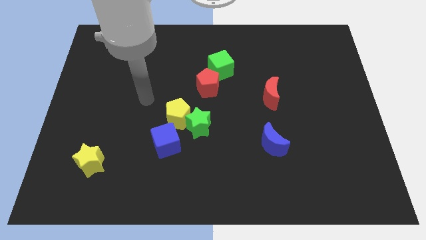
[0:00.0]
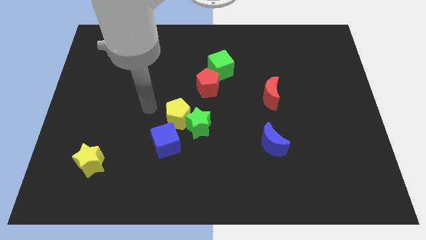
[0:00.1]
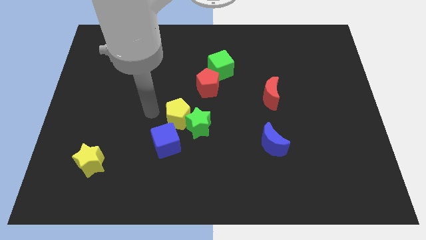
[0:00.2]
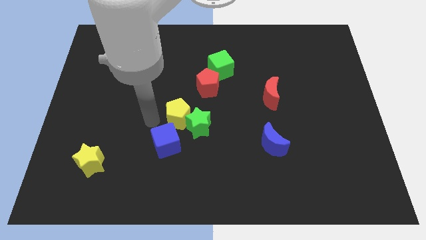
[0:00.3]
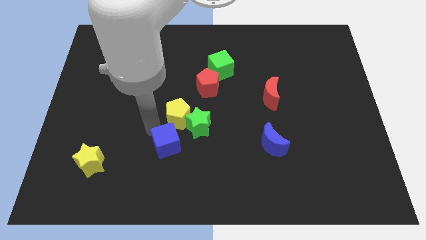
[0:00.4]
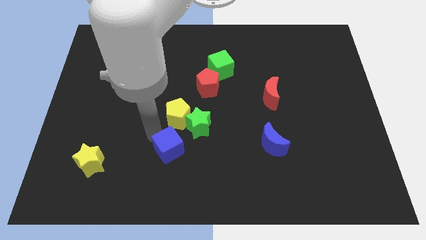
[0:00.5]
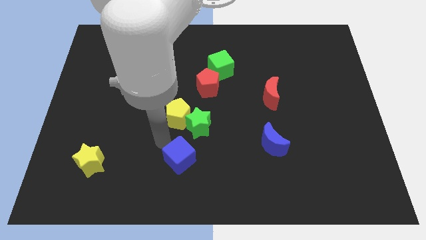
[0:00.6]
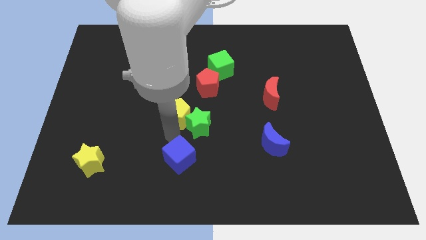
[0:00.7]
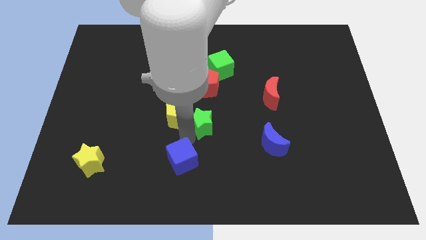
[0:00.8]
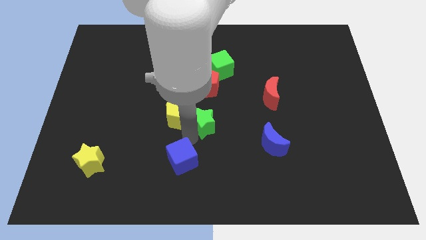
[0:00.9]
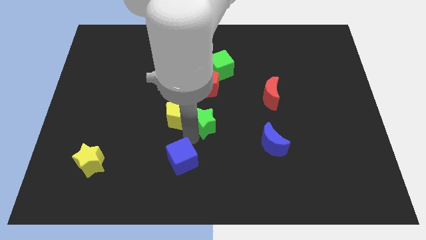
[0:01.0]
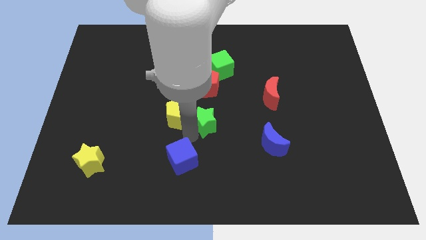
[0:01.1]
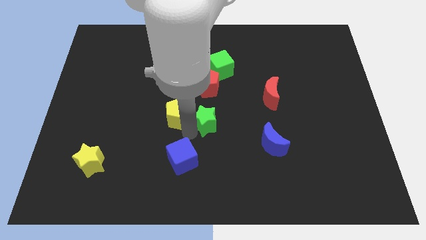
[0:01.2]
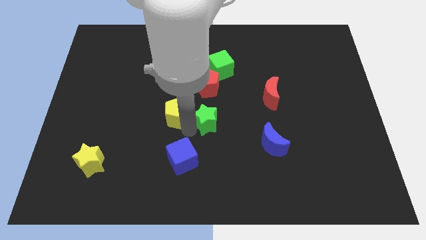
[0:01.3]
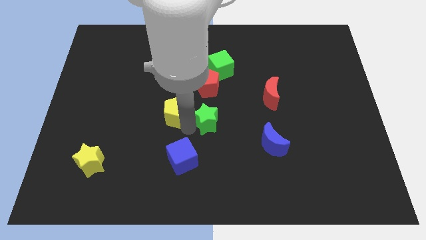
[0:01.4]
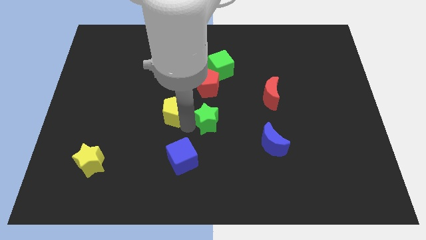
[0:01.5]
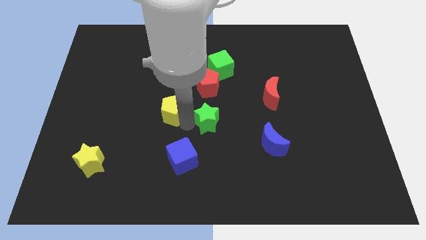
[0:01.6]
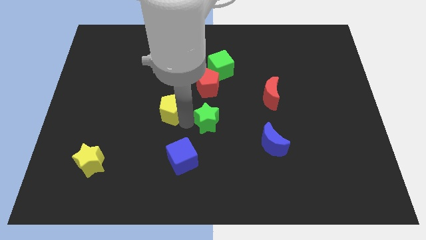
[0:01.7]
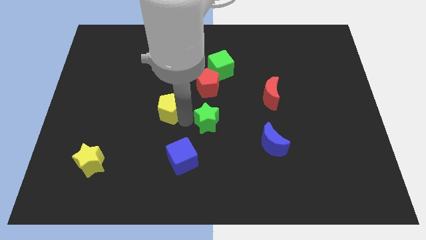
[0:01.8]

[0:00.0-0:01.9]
move the yellow pentagon away from the green star and blue cube

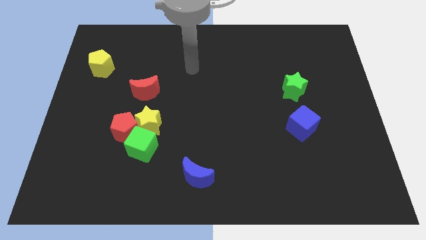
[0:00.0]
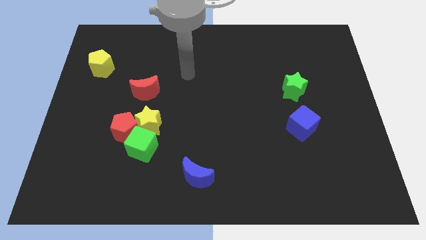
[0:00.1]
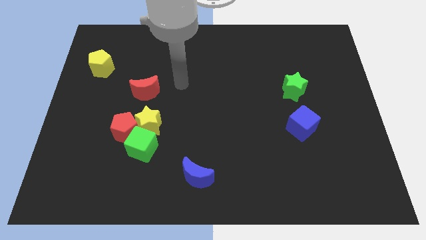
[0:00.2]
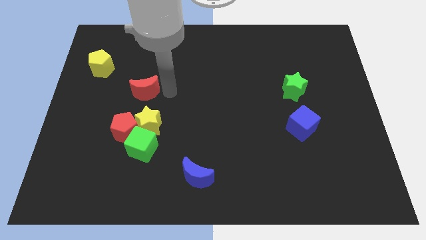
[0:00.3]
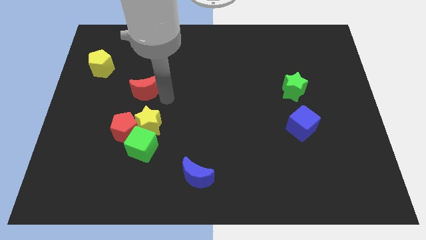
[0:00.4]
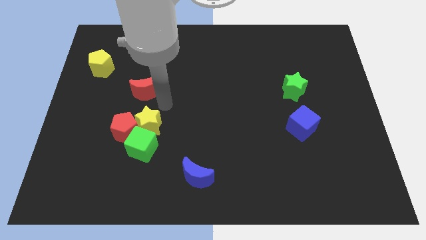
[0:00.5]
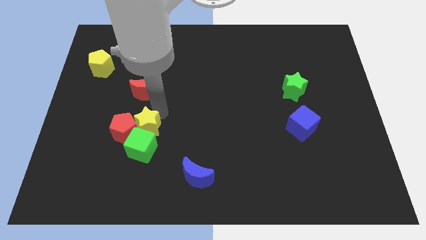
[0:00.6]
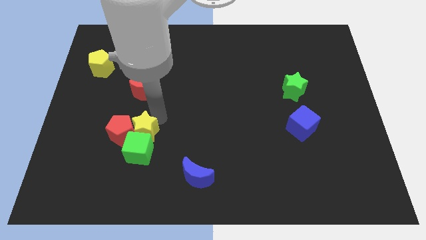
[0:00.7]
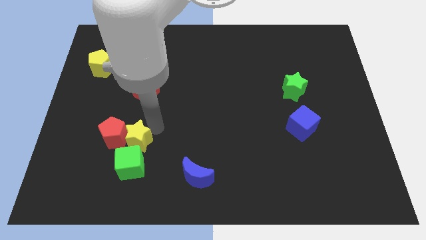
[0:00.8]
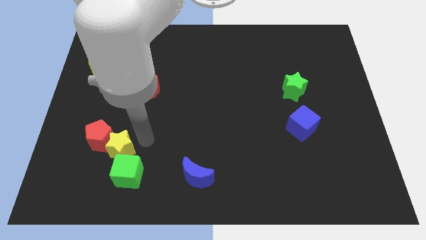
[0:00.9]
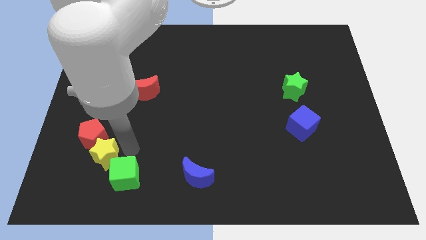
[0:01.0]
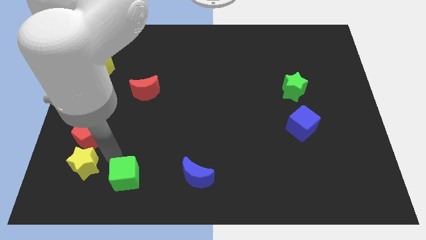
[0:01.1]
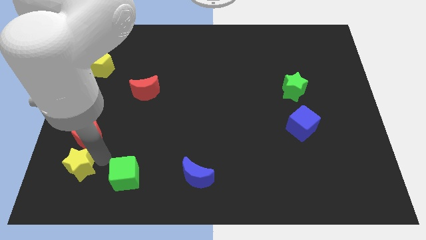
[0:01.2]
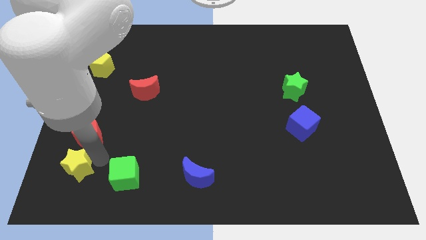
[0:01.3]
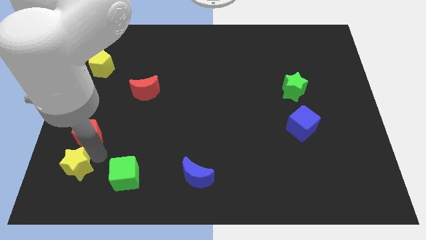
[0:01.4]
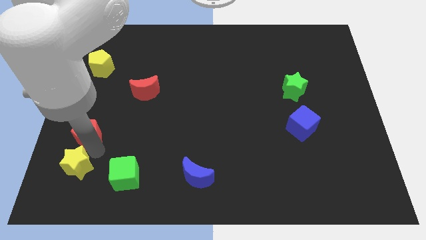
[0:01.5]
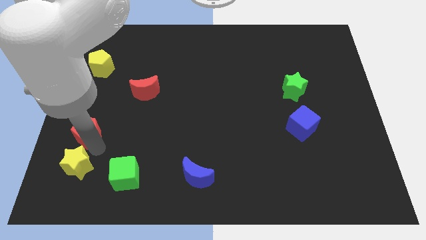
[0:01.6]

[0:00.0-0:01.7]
separate the red pentagon from the yellow star and green cube

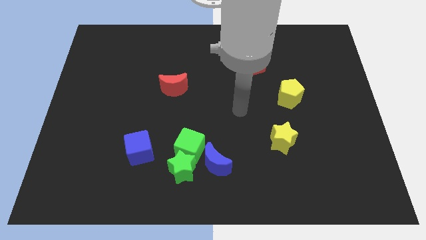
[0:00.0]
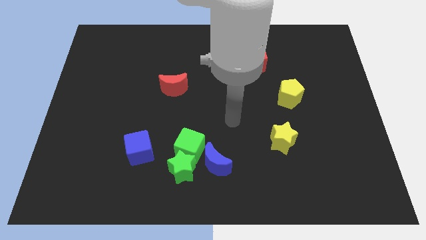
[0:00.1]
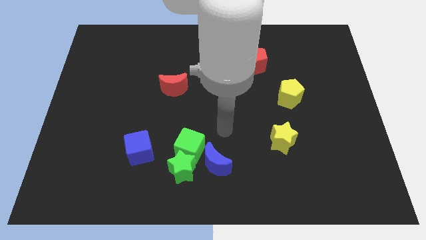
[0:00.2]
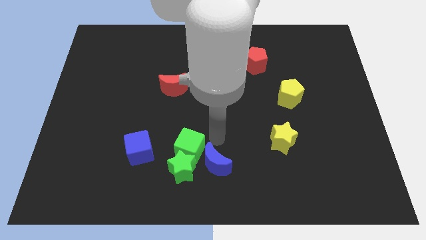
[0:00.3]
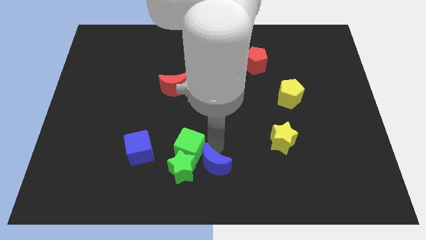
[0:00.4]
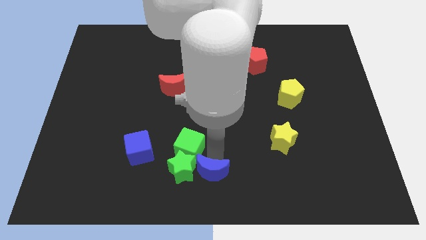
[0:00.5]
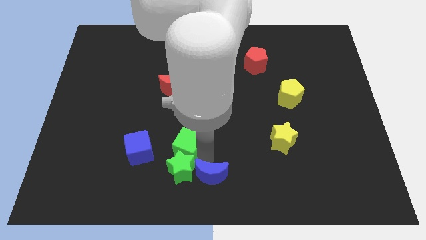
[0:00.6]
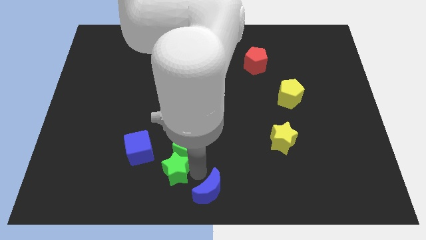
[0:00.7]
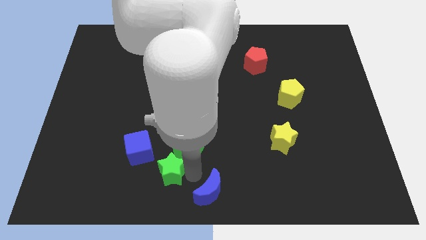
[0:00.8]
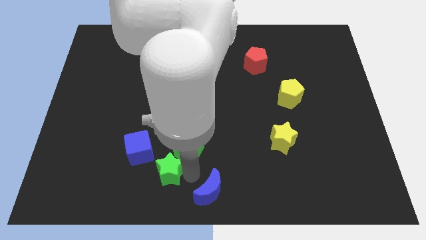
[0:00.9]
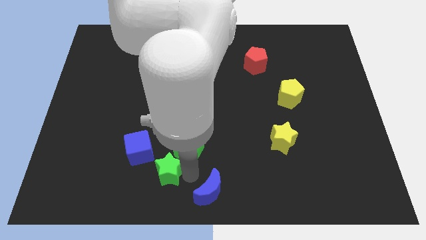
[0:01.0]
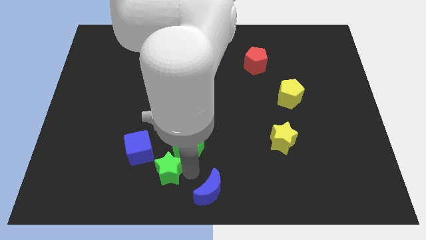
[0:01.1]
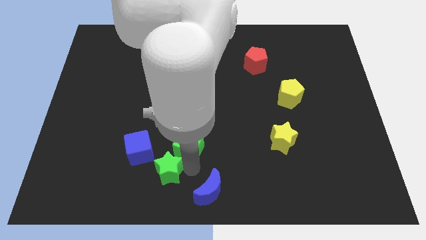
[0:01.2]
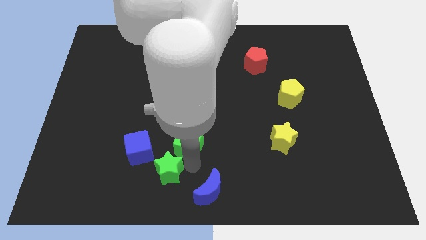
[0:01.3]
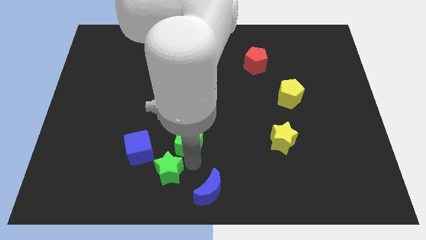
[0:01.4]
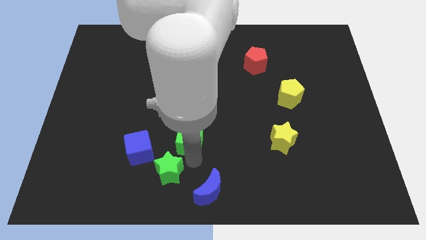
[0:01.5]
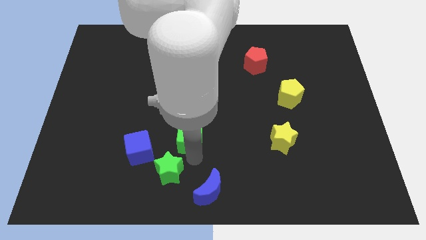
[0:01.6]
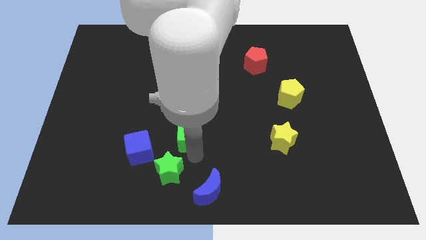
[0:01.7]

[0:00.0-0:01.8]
separate the green cube from the green star and blue moon

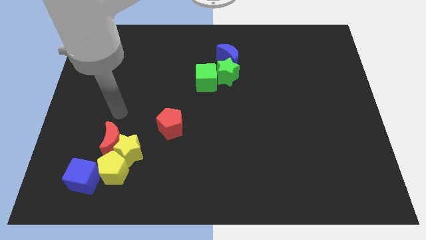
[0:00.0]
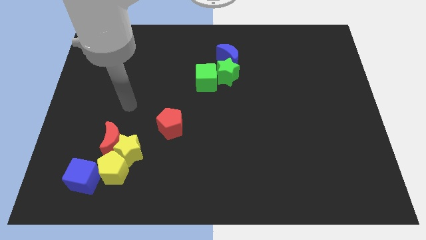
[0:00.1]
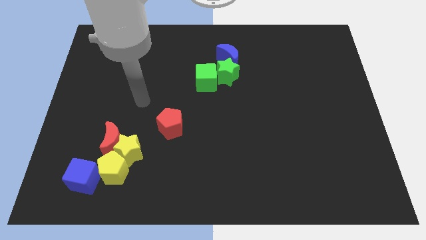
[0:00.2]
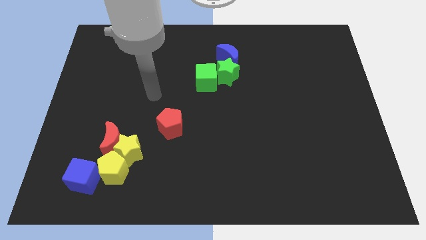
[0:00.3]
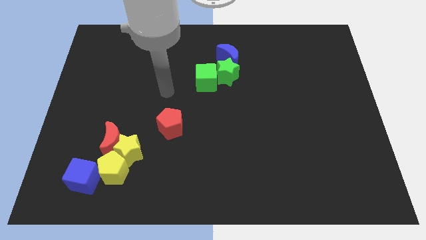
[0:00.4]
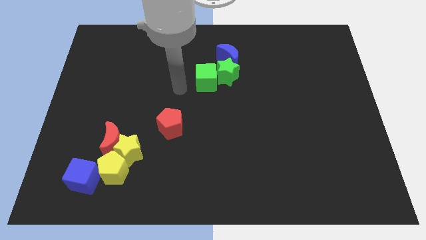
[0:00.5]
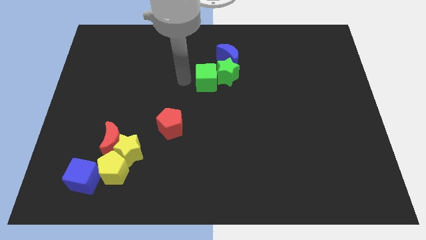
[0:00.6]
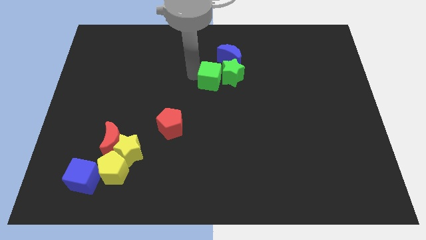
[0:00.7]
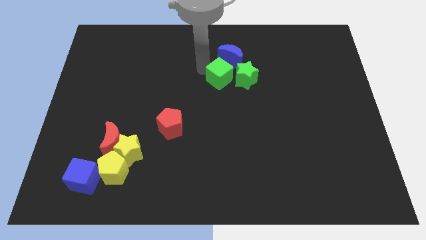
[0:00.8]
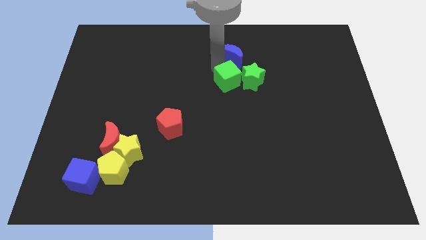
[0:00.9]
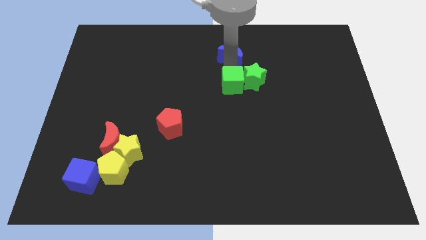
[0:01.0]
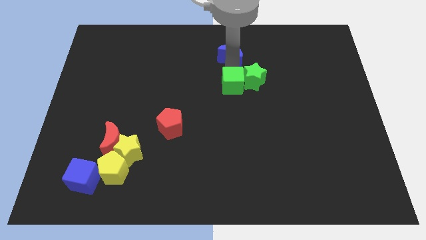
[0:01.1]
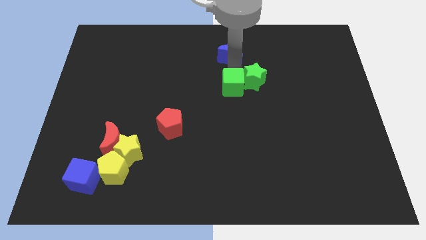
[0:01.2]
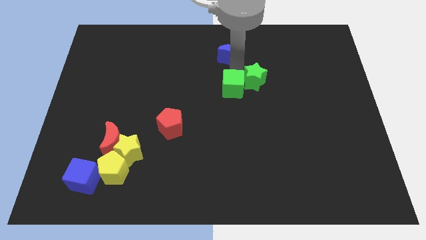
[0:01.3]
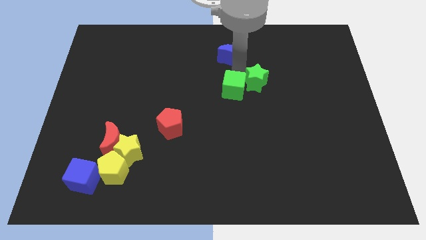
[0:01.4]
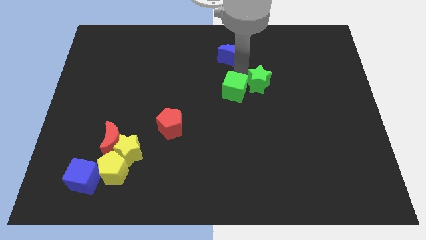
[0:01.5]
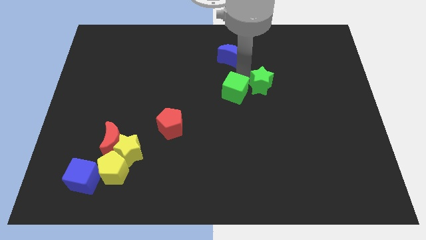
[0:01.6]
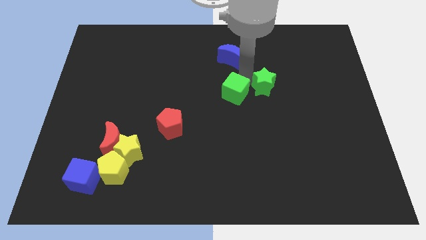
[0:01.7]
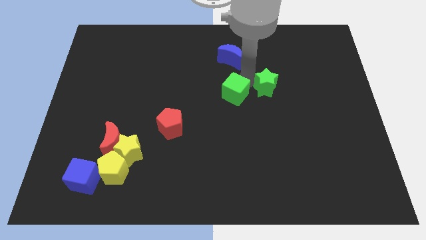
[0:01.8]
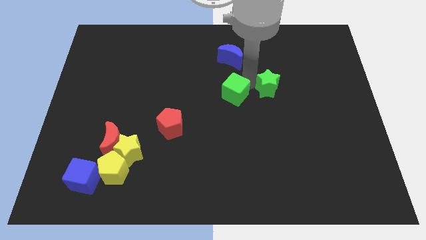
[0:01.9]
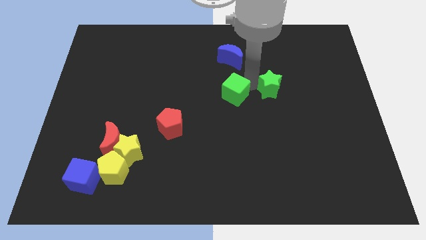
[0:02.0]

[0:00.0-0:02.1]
pull the green star apart from the green cube and blue moon

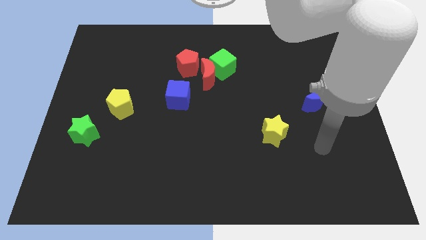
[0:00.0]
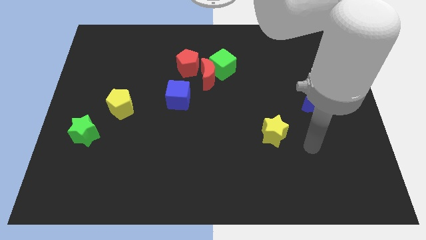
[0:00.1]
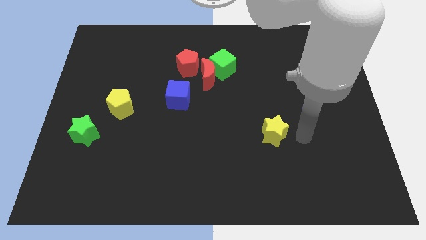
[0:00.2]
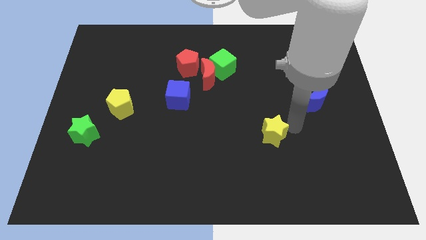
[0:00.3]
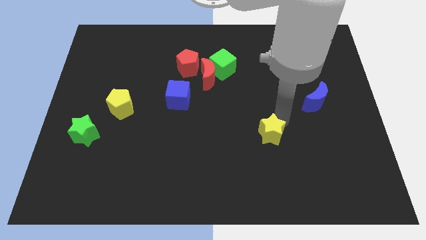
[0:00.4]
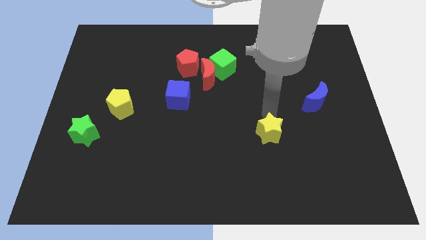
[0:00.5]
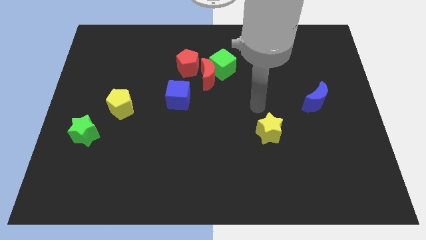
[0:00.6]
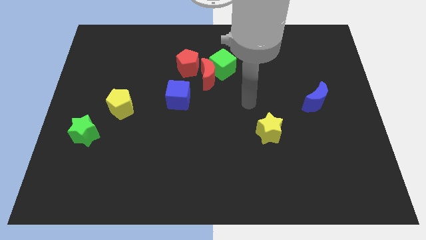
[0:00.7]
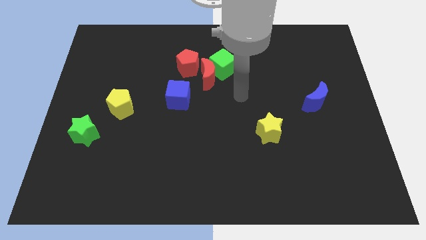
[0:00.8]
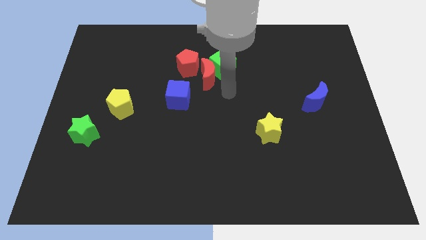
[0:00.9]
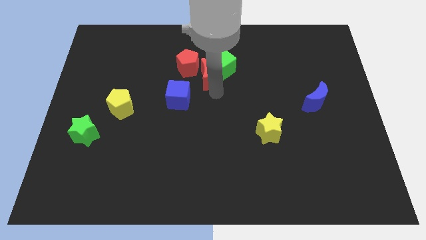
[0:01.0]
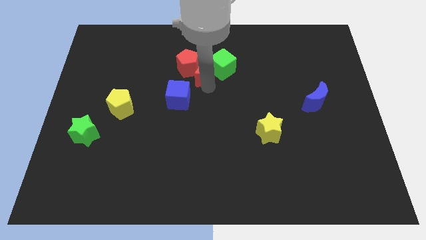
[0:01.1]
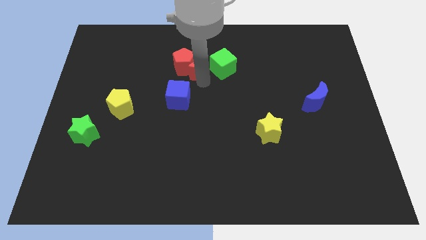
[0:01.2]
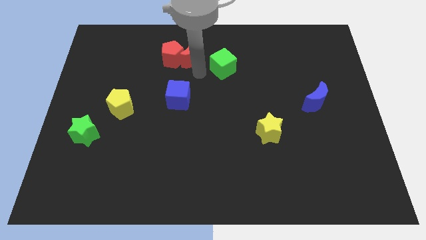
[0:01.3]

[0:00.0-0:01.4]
pull the green cube apart from the red moon and red pentagon

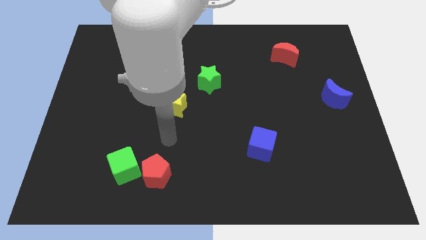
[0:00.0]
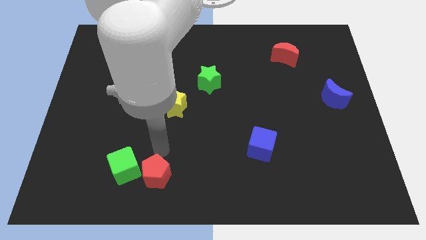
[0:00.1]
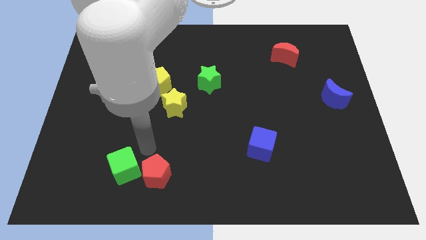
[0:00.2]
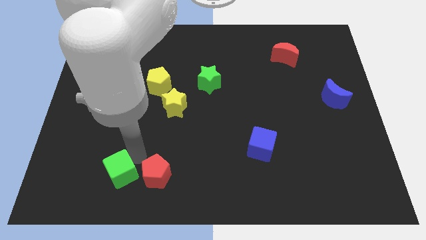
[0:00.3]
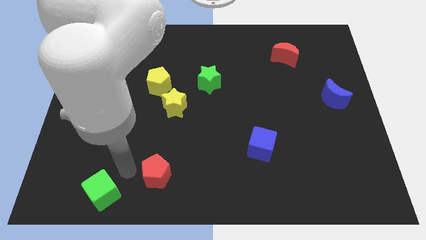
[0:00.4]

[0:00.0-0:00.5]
pull the red pentagon apart from the green cube
